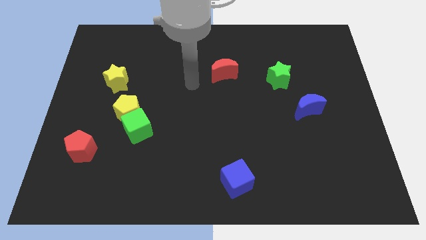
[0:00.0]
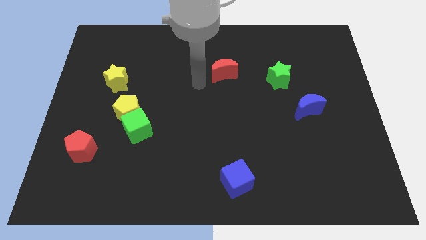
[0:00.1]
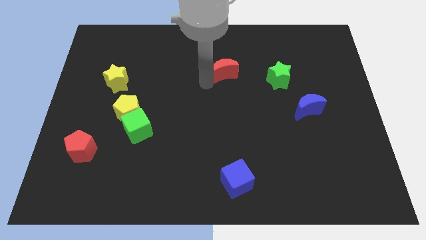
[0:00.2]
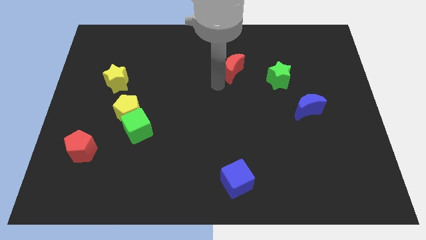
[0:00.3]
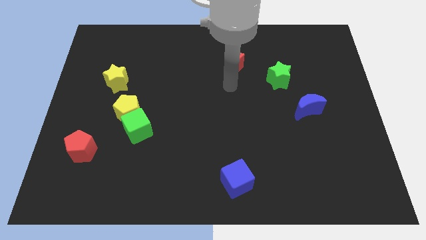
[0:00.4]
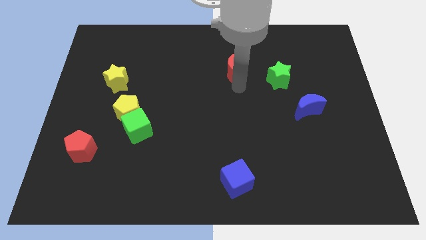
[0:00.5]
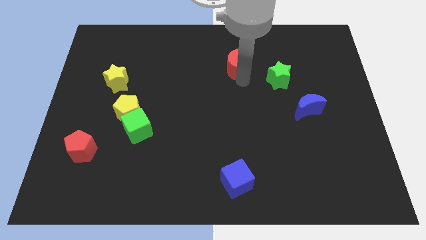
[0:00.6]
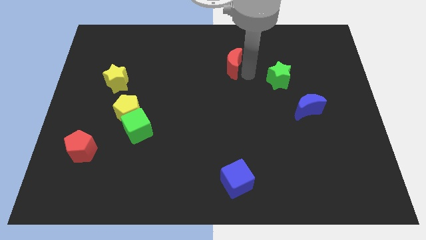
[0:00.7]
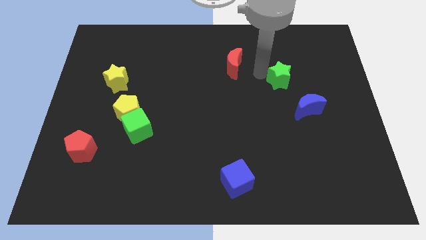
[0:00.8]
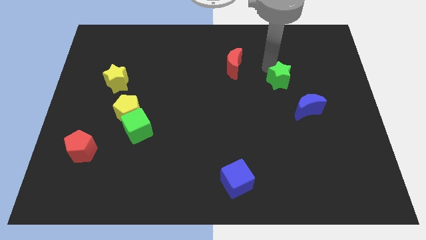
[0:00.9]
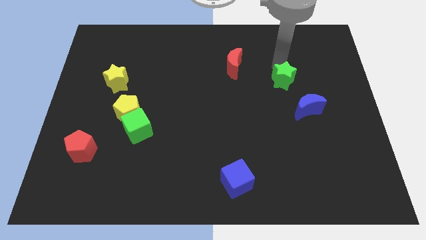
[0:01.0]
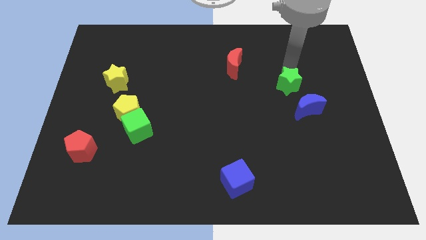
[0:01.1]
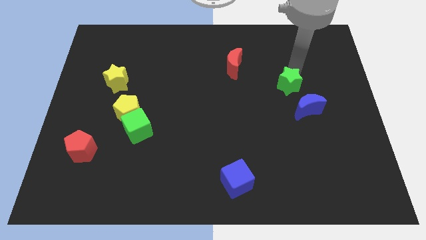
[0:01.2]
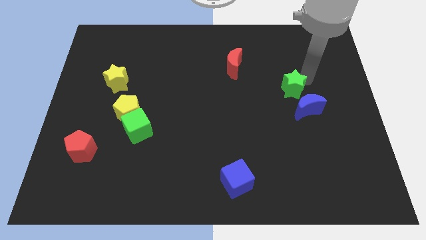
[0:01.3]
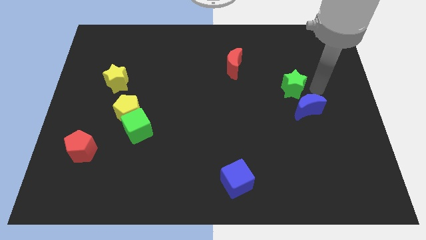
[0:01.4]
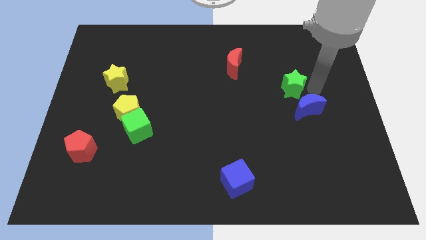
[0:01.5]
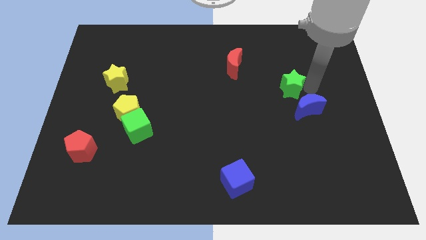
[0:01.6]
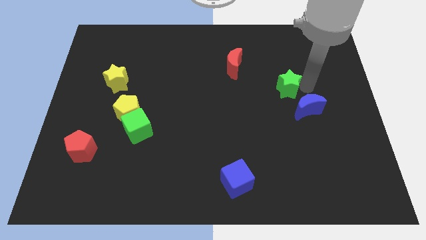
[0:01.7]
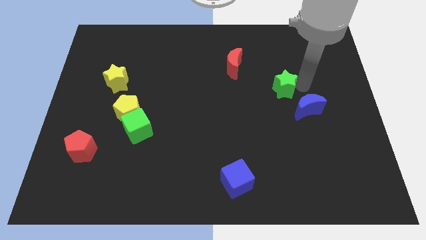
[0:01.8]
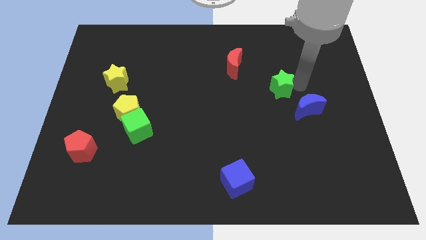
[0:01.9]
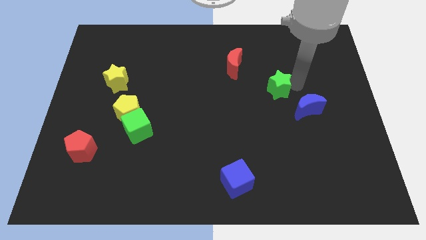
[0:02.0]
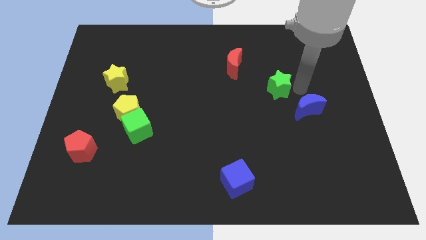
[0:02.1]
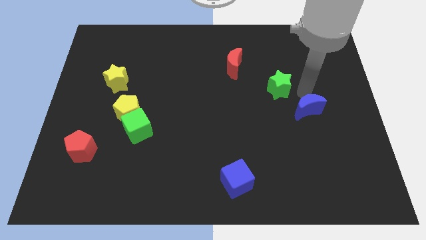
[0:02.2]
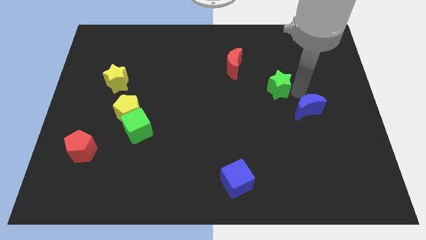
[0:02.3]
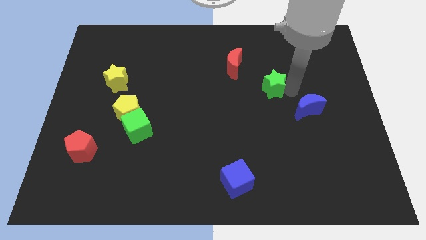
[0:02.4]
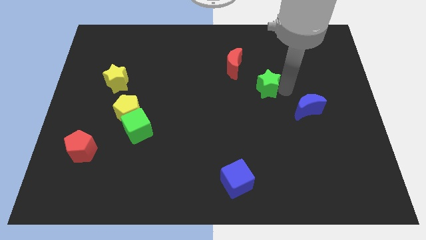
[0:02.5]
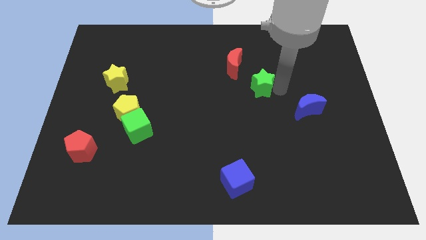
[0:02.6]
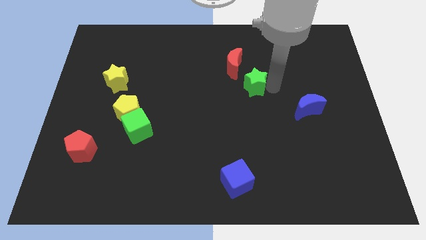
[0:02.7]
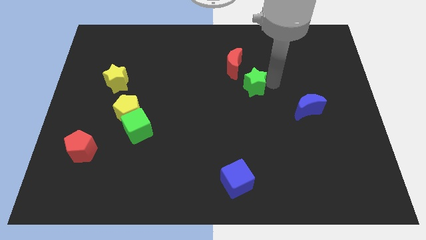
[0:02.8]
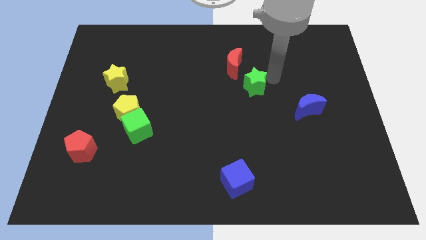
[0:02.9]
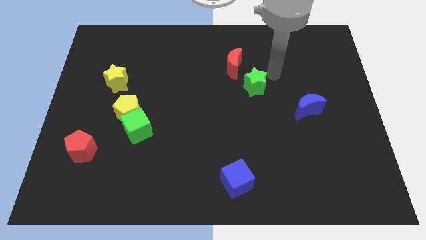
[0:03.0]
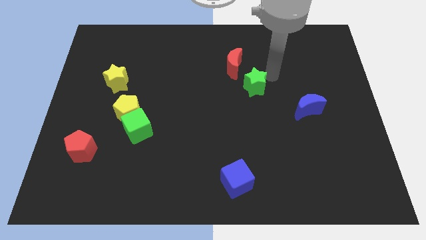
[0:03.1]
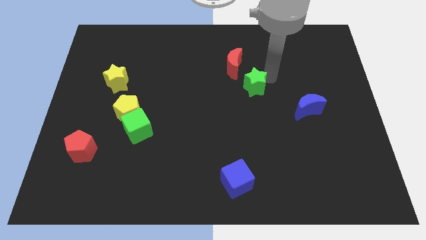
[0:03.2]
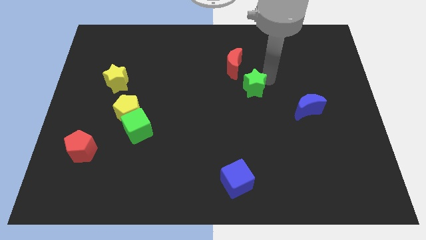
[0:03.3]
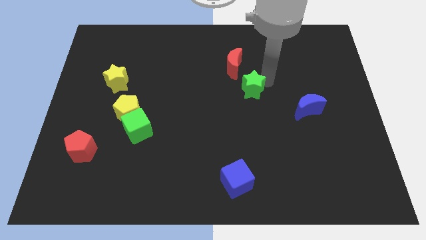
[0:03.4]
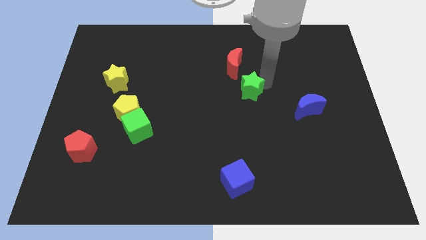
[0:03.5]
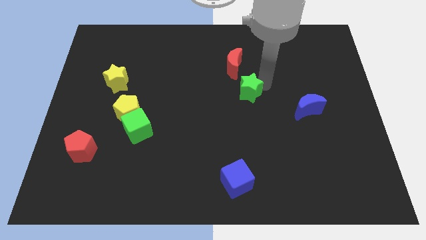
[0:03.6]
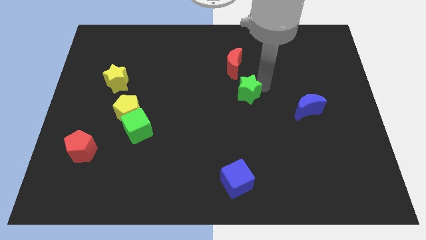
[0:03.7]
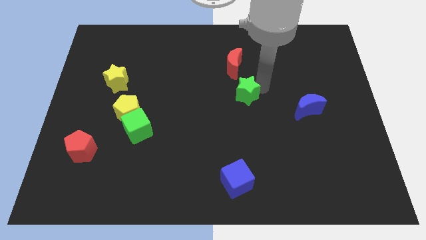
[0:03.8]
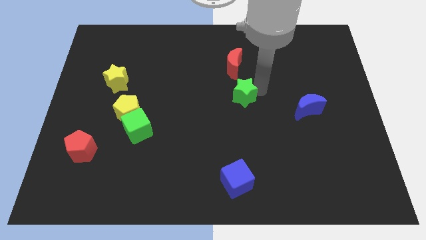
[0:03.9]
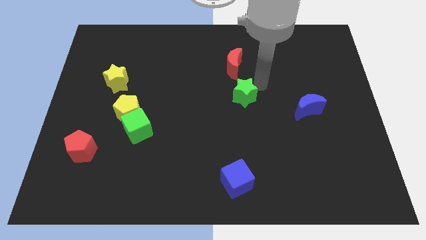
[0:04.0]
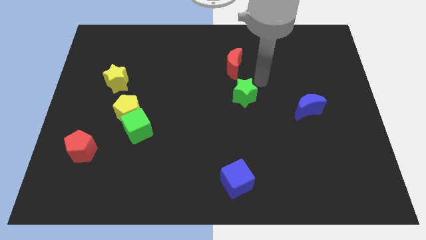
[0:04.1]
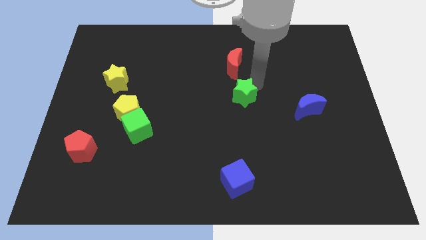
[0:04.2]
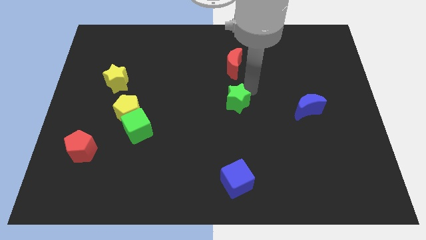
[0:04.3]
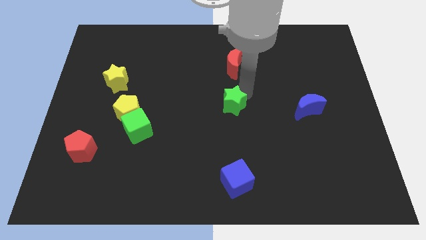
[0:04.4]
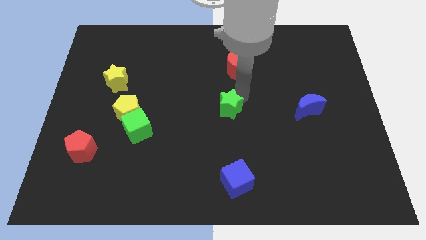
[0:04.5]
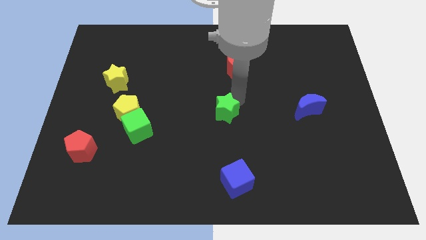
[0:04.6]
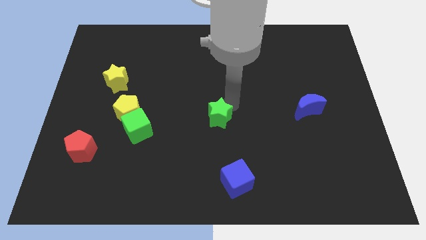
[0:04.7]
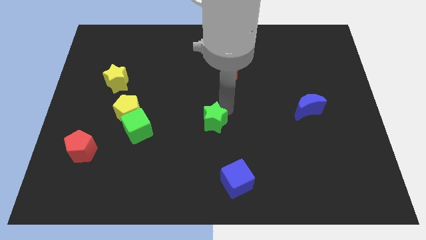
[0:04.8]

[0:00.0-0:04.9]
push the green star diagonally down and left

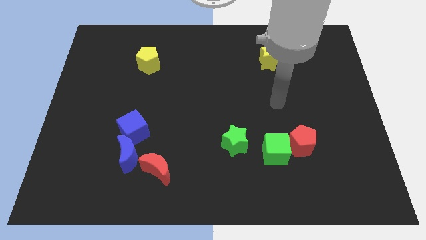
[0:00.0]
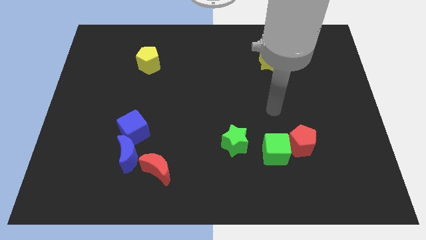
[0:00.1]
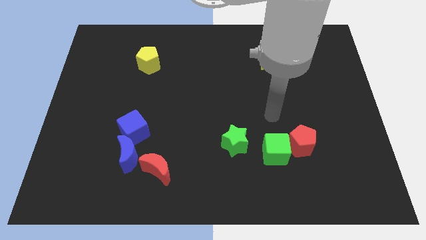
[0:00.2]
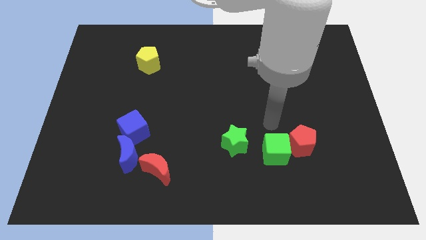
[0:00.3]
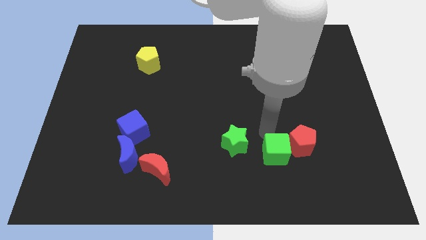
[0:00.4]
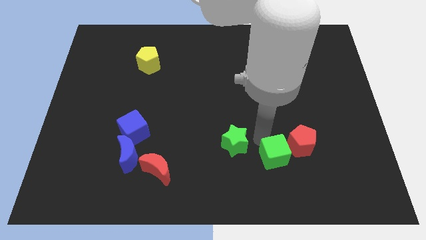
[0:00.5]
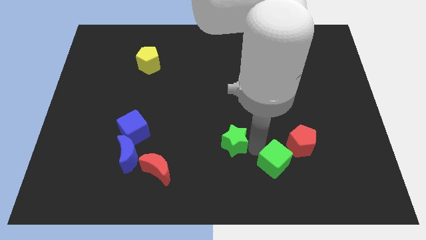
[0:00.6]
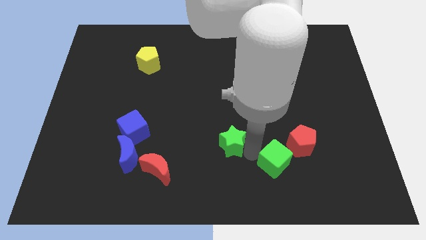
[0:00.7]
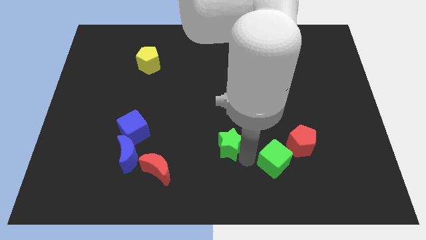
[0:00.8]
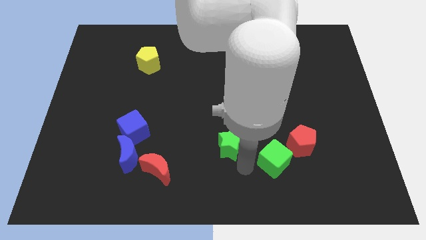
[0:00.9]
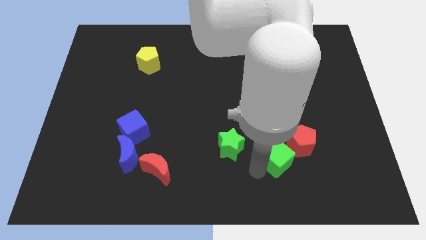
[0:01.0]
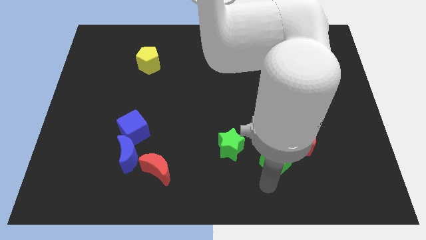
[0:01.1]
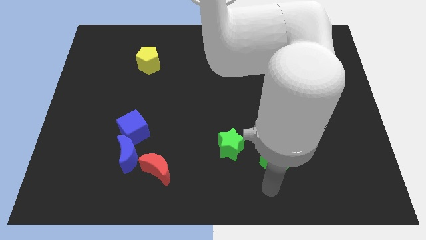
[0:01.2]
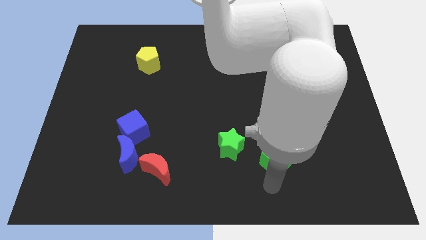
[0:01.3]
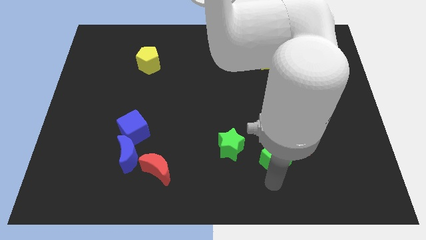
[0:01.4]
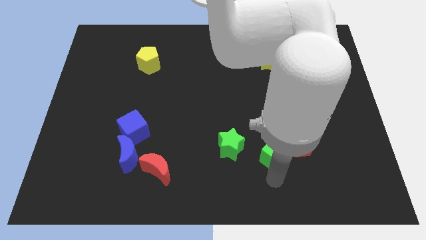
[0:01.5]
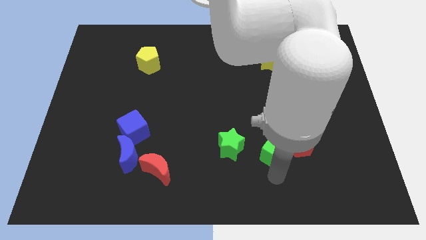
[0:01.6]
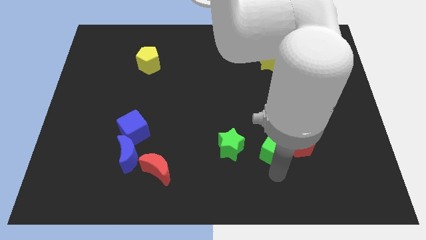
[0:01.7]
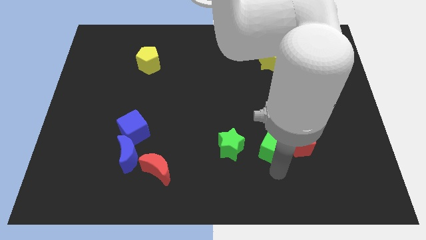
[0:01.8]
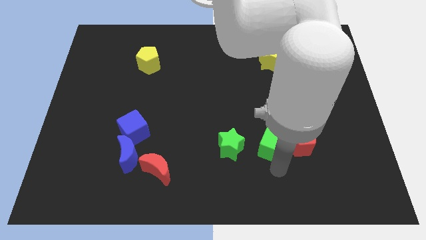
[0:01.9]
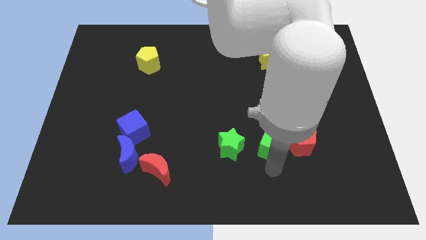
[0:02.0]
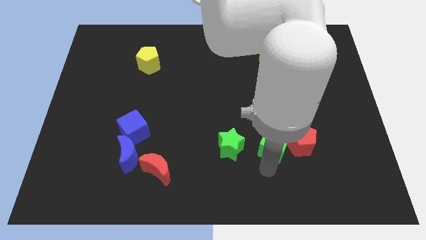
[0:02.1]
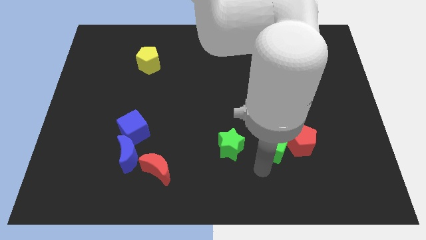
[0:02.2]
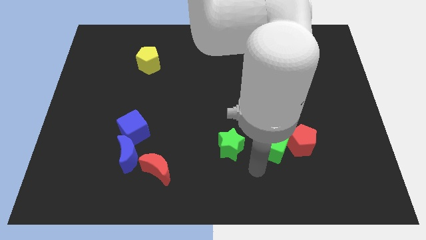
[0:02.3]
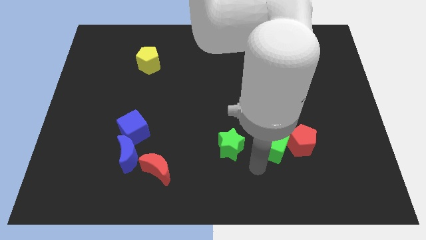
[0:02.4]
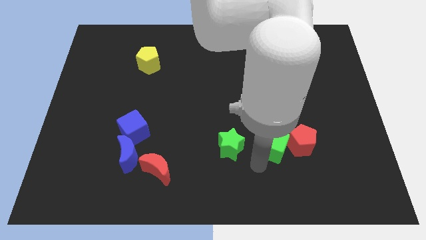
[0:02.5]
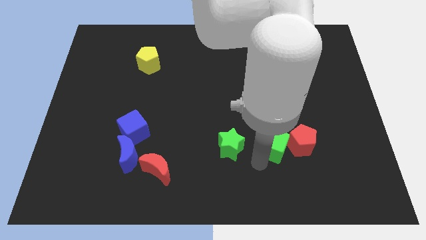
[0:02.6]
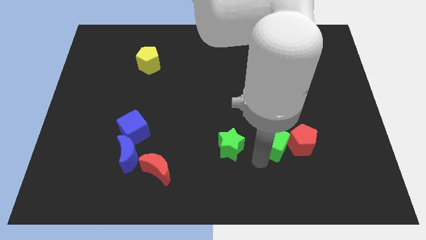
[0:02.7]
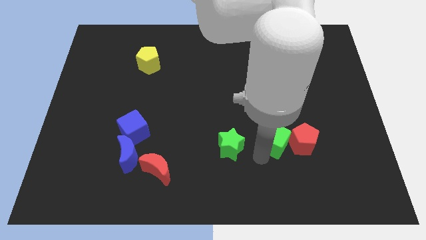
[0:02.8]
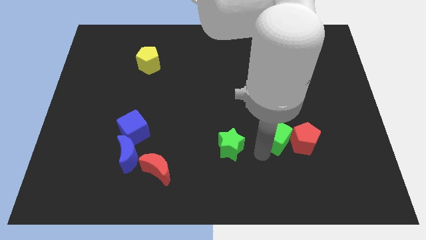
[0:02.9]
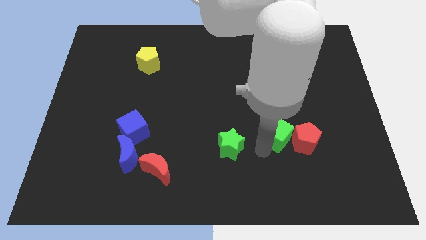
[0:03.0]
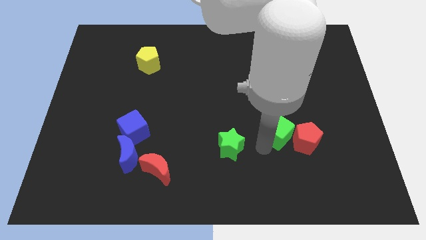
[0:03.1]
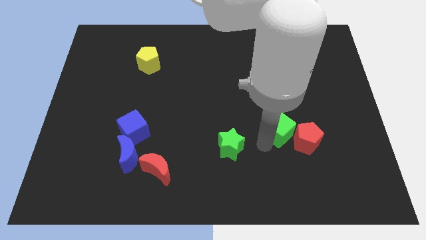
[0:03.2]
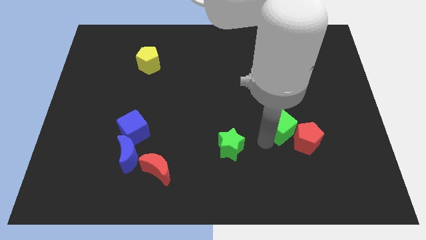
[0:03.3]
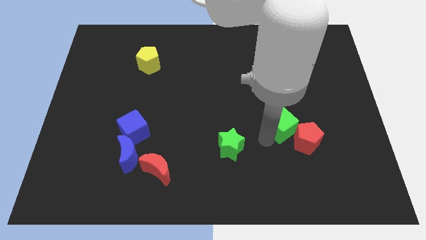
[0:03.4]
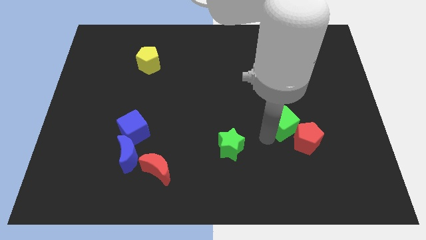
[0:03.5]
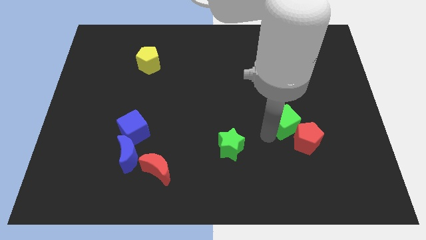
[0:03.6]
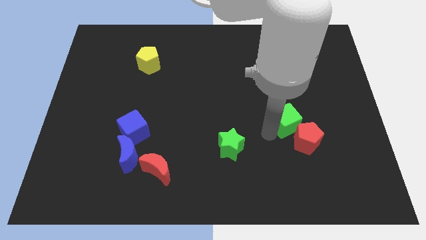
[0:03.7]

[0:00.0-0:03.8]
push the green cube a little bit diagonally up and right
